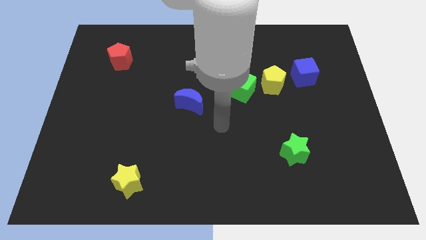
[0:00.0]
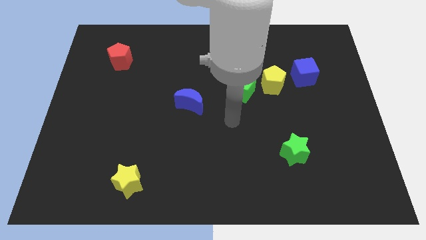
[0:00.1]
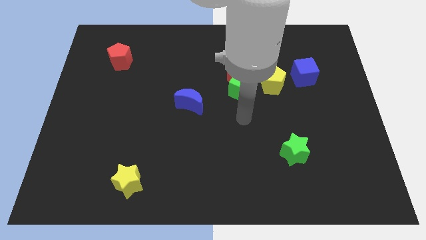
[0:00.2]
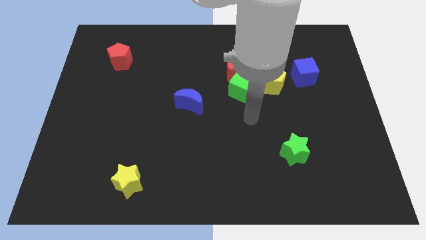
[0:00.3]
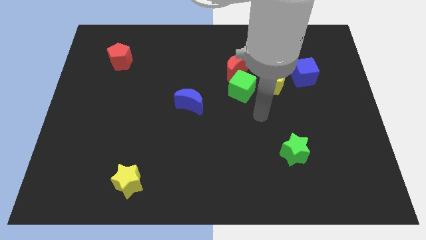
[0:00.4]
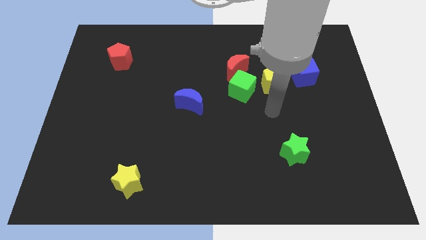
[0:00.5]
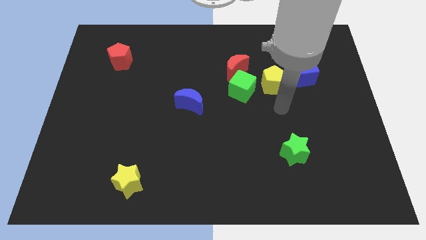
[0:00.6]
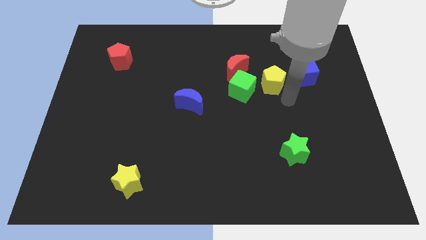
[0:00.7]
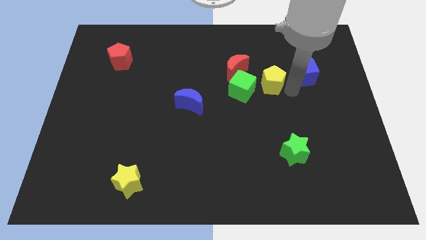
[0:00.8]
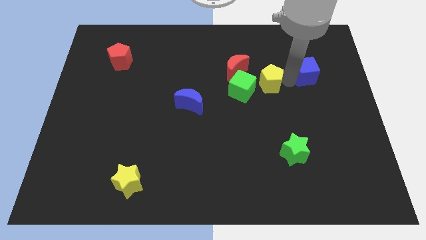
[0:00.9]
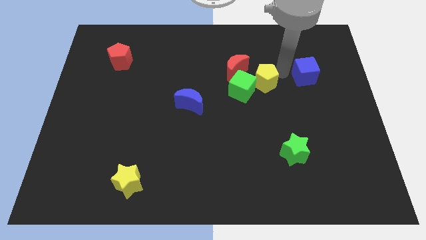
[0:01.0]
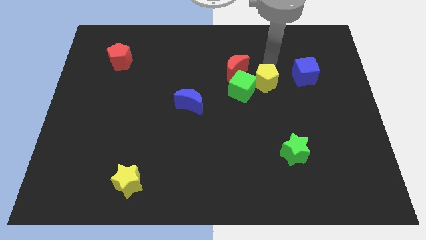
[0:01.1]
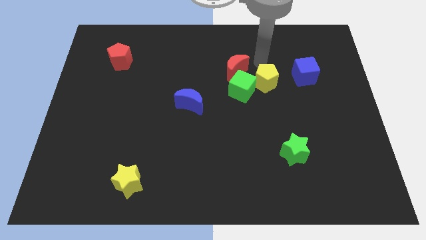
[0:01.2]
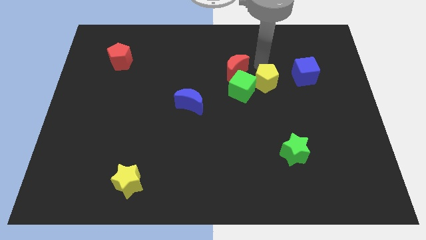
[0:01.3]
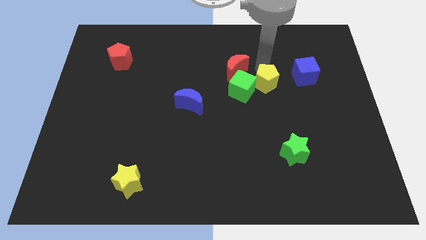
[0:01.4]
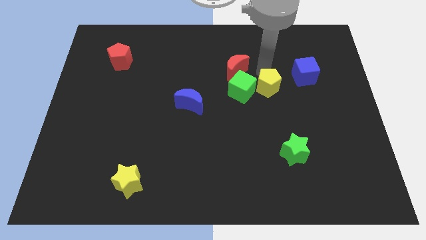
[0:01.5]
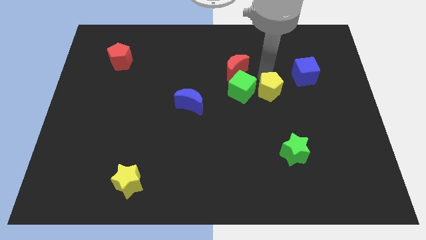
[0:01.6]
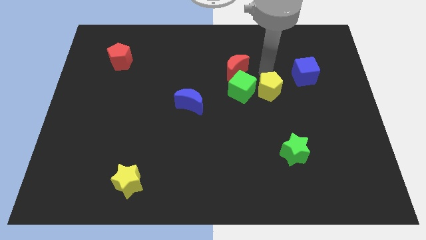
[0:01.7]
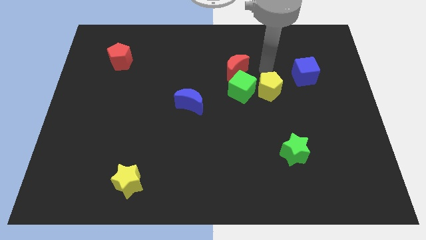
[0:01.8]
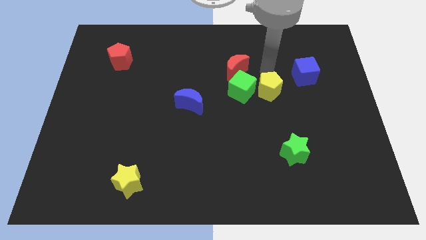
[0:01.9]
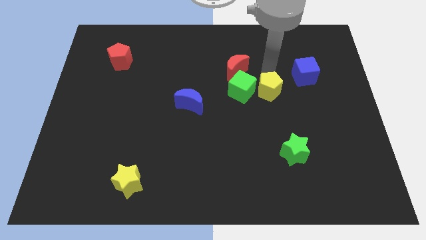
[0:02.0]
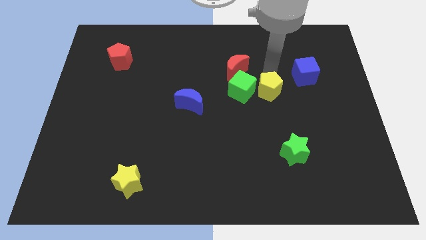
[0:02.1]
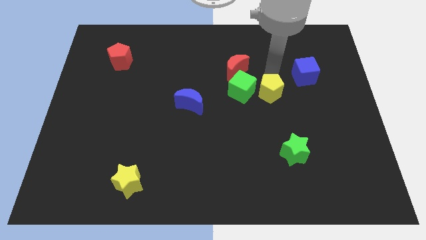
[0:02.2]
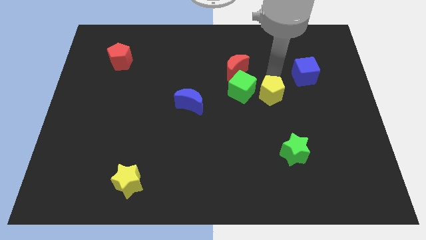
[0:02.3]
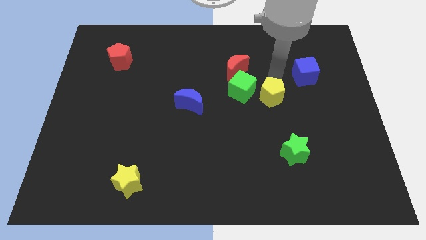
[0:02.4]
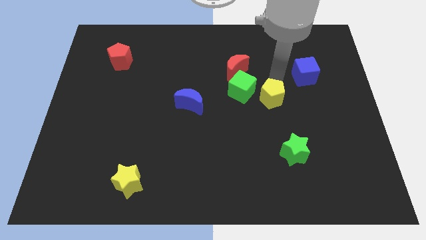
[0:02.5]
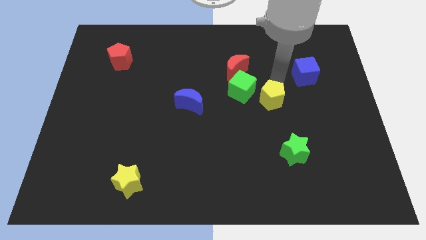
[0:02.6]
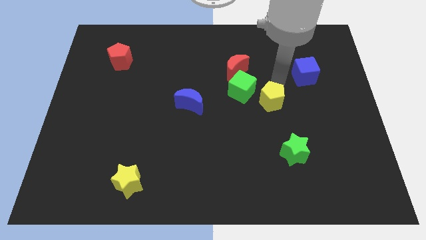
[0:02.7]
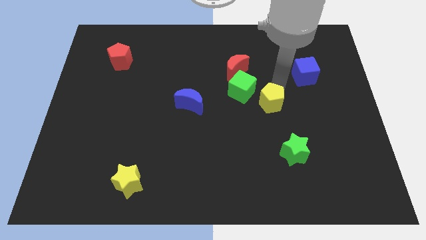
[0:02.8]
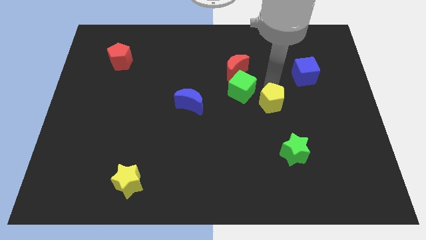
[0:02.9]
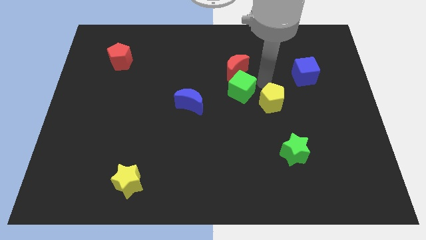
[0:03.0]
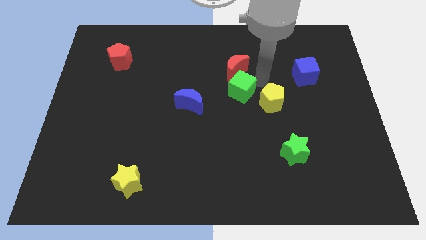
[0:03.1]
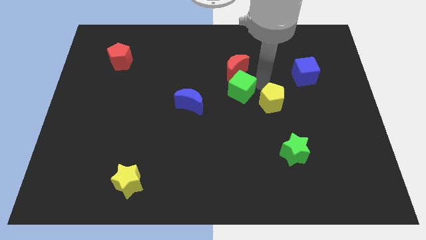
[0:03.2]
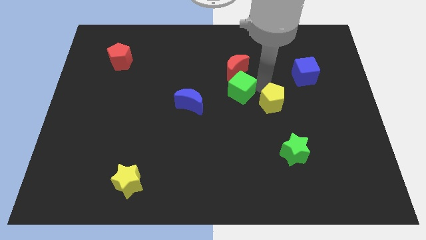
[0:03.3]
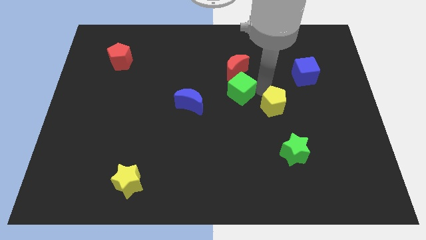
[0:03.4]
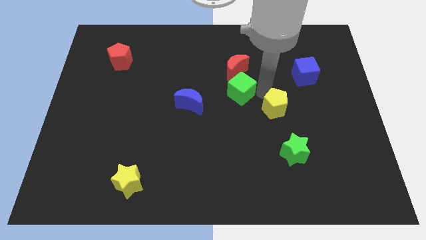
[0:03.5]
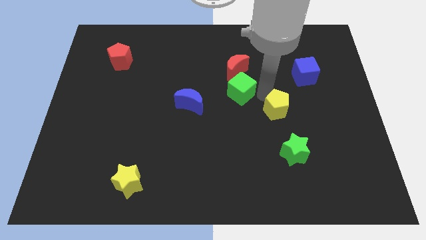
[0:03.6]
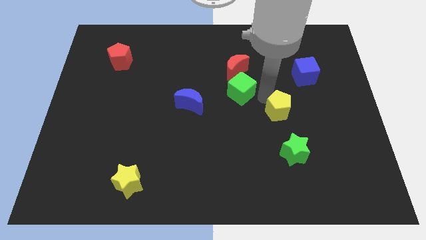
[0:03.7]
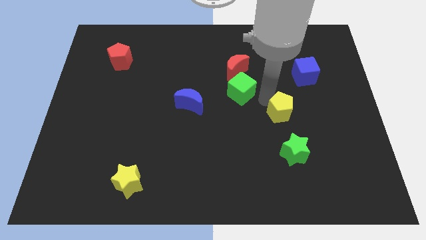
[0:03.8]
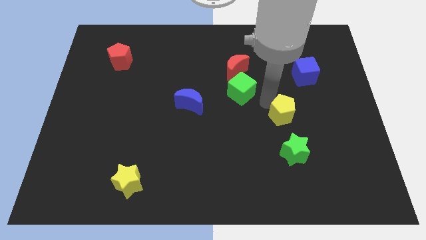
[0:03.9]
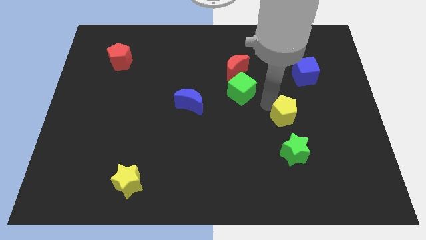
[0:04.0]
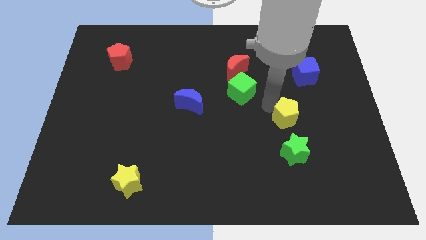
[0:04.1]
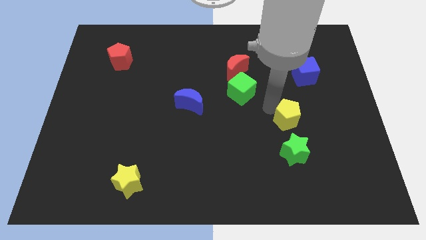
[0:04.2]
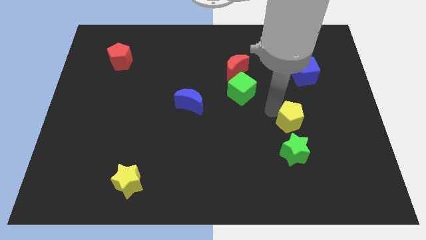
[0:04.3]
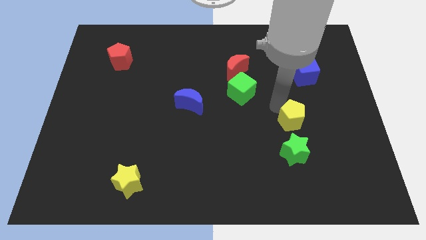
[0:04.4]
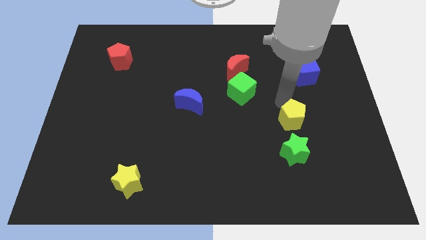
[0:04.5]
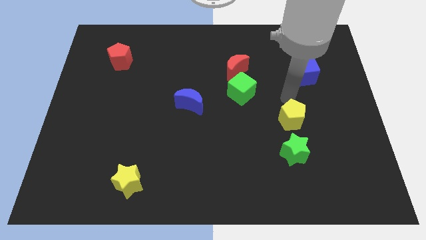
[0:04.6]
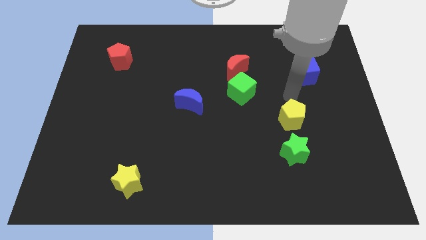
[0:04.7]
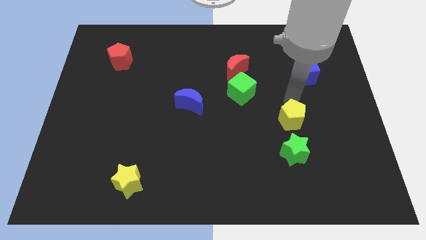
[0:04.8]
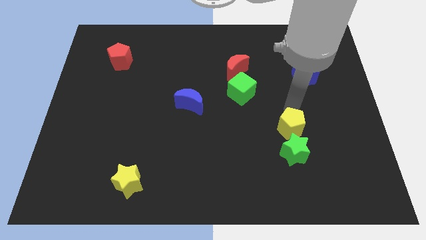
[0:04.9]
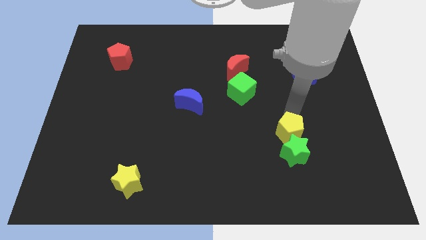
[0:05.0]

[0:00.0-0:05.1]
put the yellow pentagon next to the green star

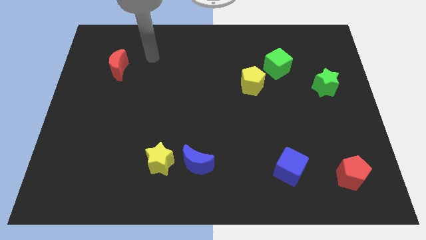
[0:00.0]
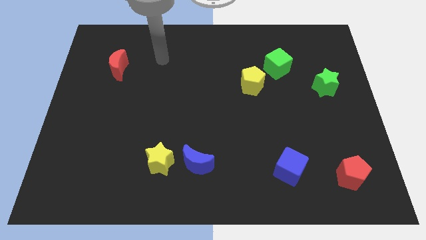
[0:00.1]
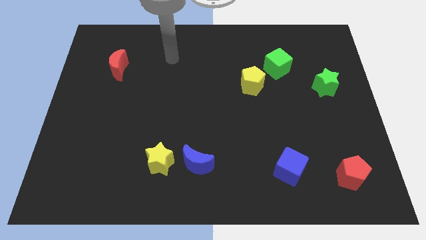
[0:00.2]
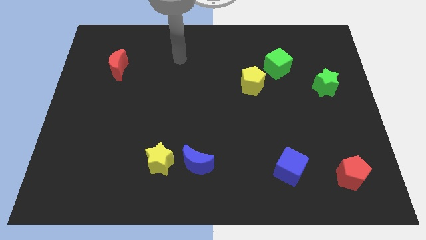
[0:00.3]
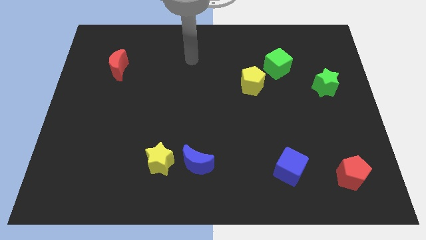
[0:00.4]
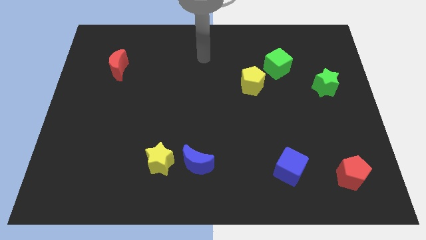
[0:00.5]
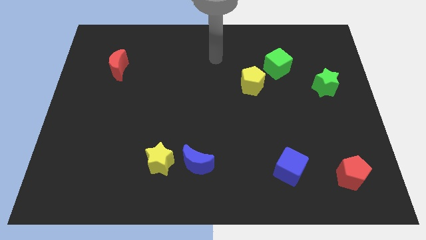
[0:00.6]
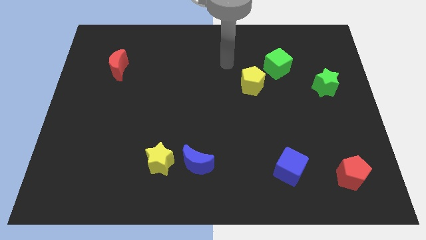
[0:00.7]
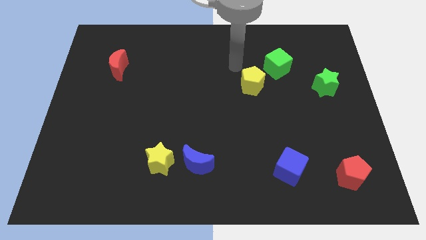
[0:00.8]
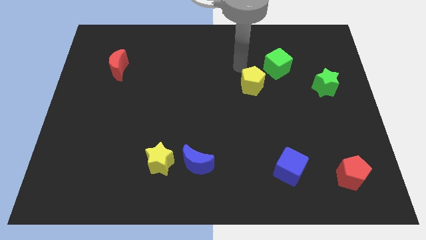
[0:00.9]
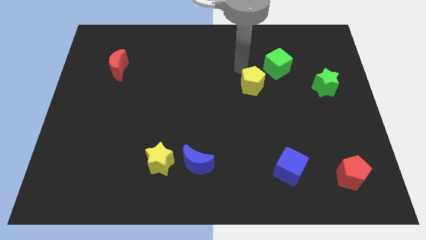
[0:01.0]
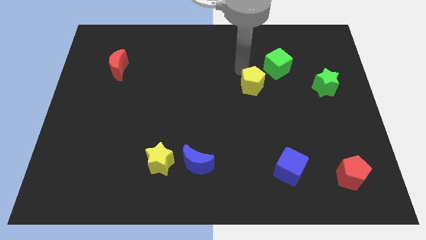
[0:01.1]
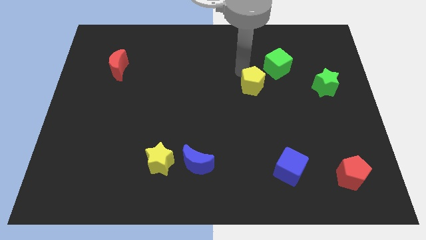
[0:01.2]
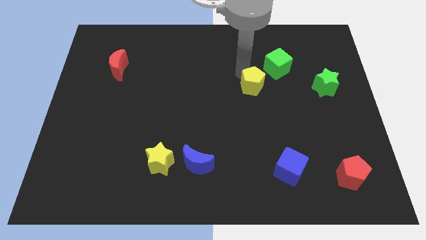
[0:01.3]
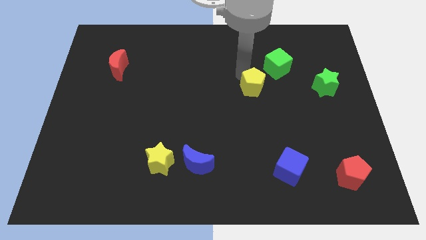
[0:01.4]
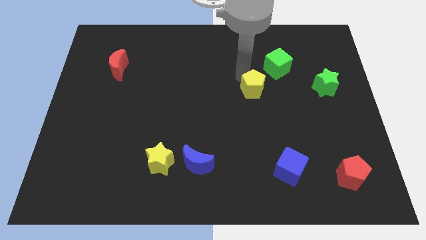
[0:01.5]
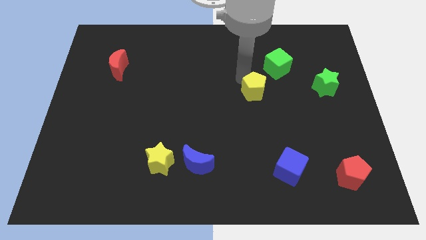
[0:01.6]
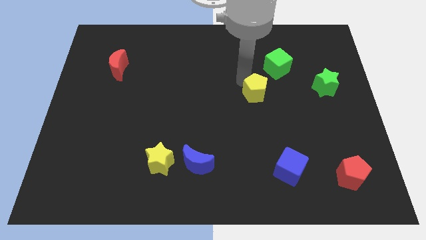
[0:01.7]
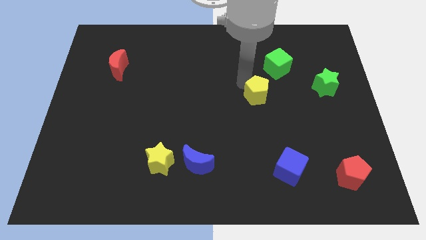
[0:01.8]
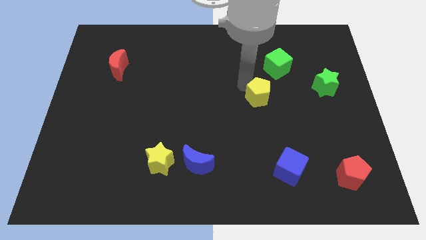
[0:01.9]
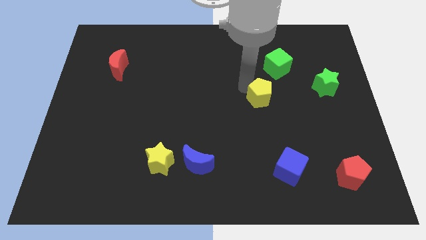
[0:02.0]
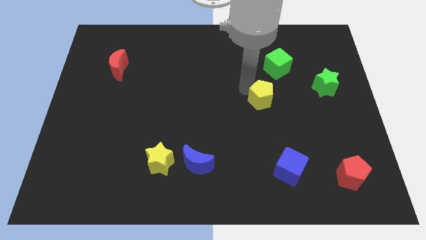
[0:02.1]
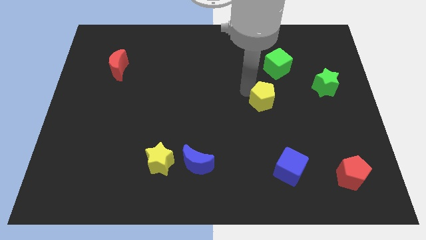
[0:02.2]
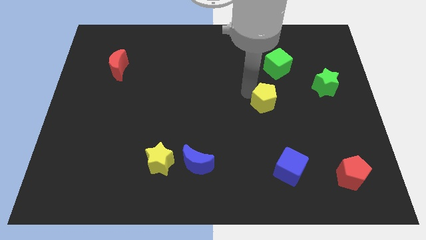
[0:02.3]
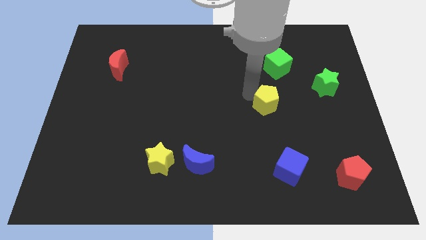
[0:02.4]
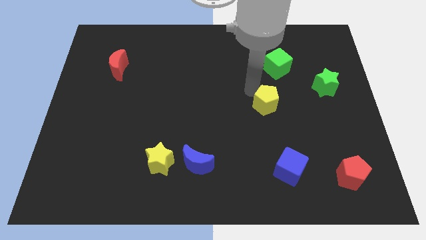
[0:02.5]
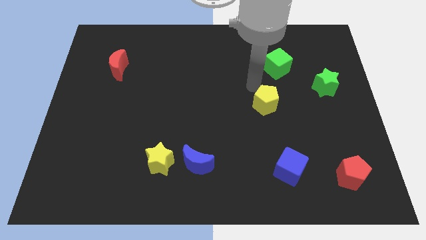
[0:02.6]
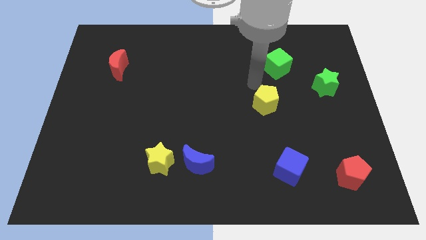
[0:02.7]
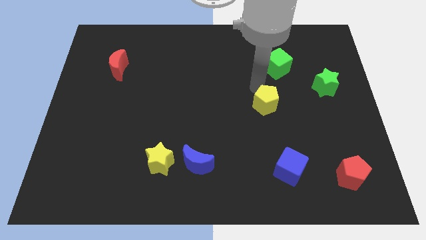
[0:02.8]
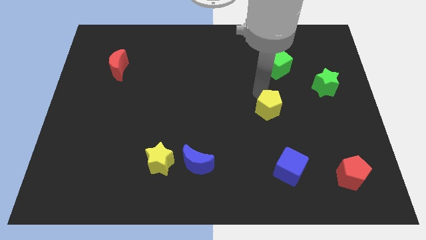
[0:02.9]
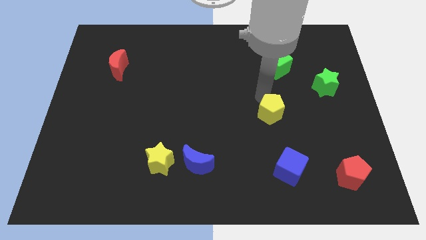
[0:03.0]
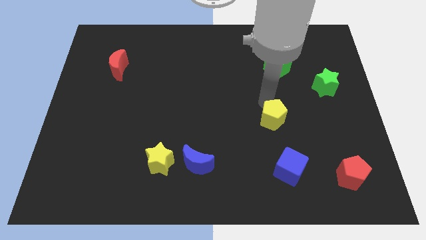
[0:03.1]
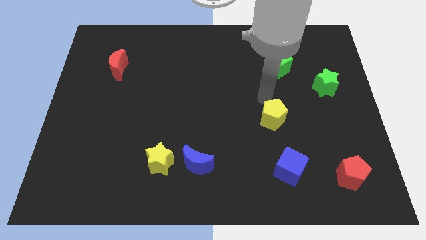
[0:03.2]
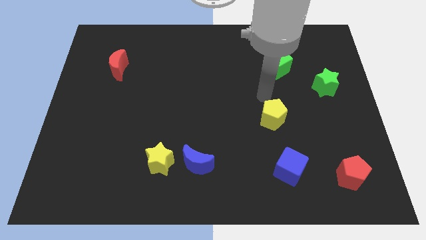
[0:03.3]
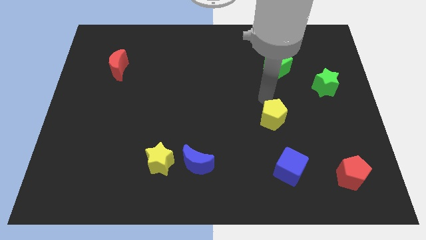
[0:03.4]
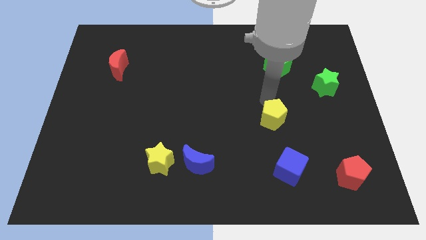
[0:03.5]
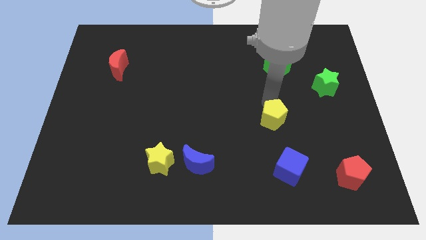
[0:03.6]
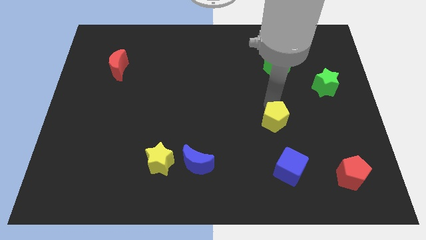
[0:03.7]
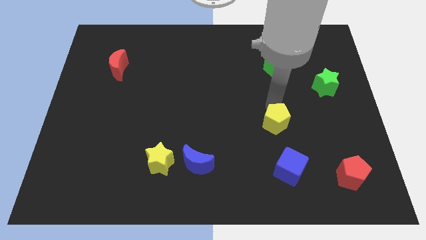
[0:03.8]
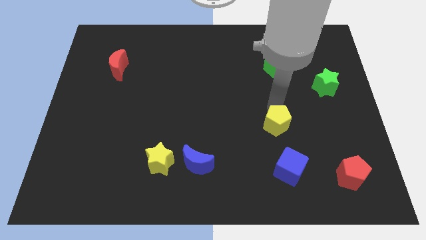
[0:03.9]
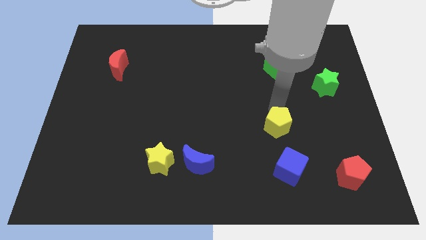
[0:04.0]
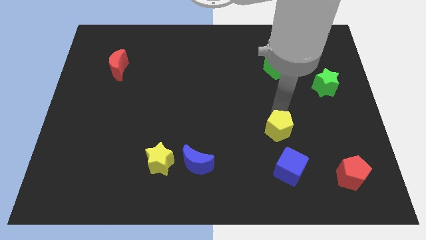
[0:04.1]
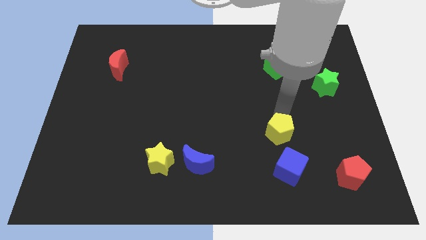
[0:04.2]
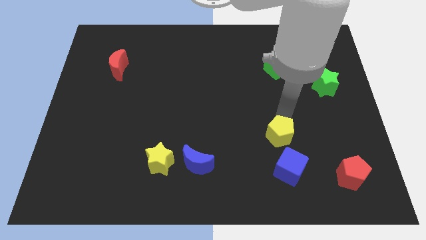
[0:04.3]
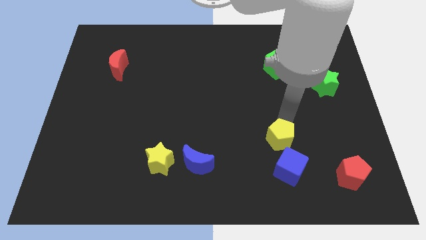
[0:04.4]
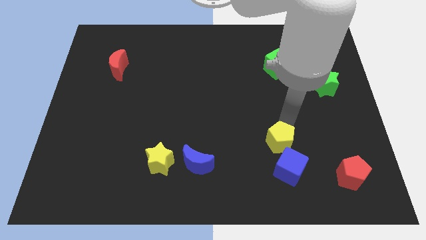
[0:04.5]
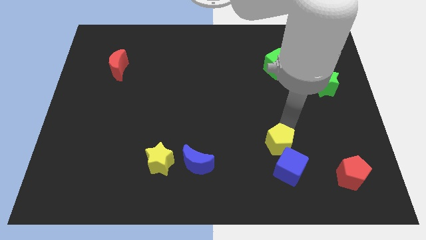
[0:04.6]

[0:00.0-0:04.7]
push the yellow pentagon close to the blue cube
